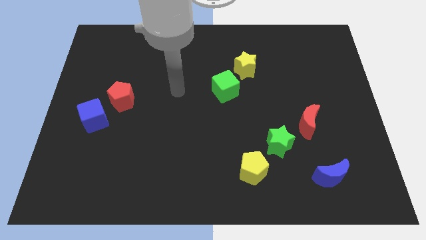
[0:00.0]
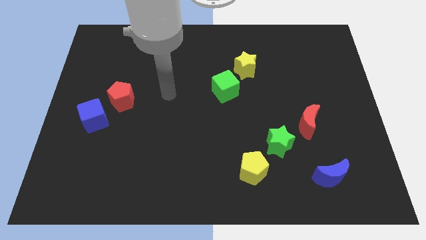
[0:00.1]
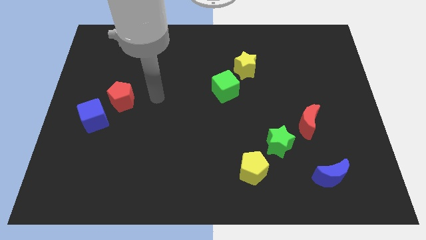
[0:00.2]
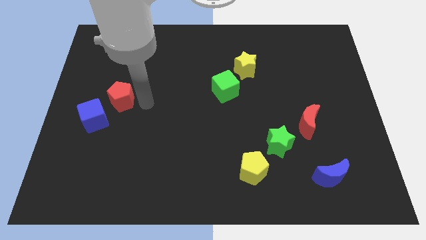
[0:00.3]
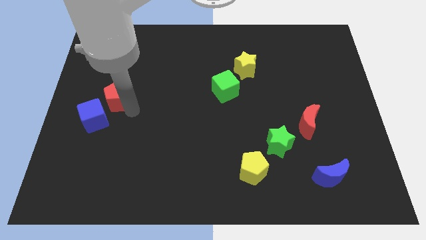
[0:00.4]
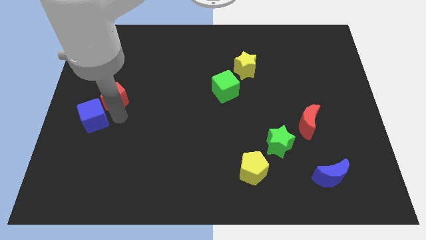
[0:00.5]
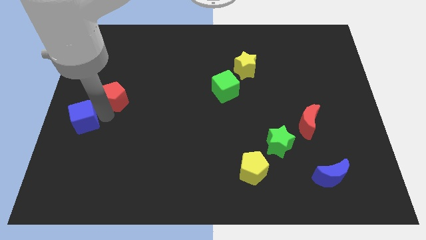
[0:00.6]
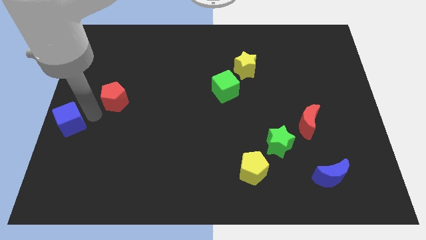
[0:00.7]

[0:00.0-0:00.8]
pull the red pentagon apart from the blue cube

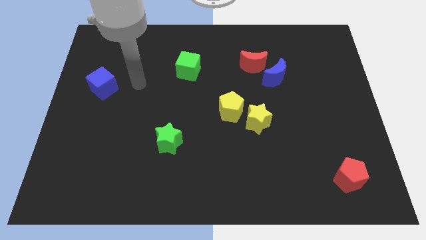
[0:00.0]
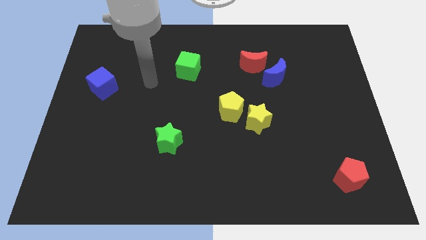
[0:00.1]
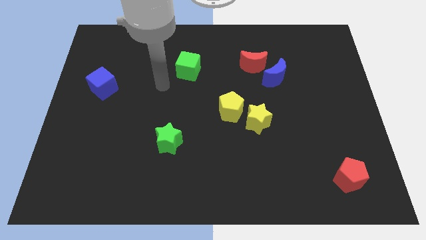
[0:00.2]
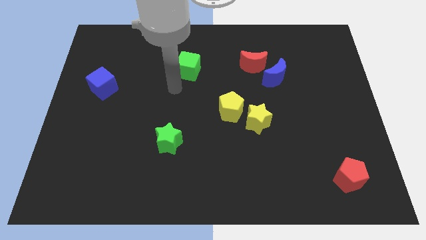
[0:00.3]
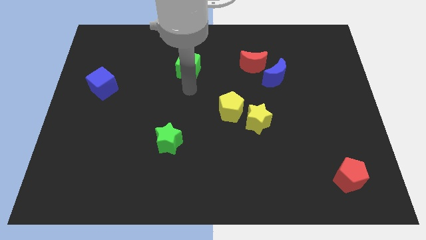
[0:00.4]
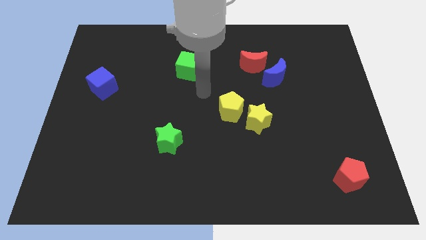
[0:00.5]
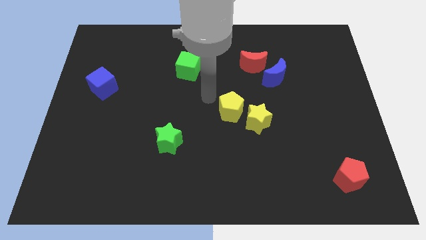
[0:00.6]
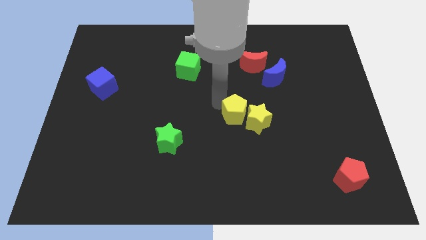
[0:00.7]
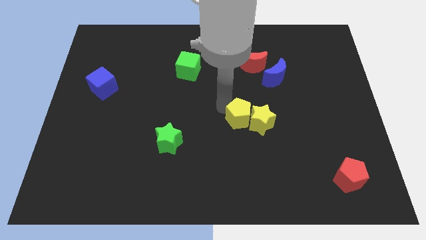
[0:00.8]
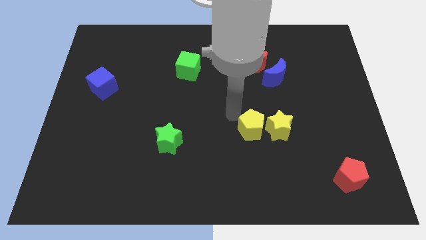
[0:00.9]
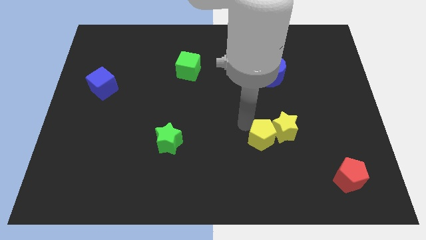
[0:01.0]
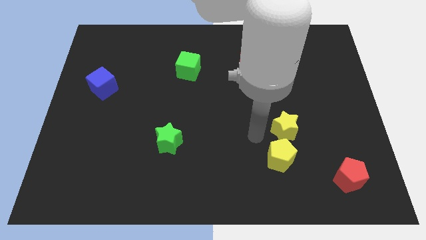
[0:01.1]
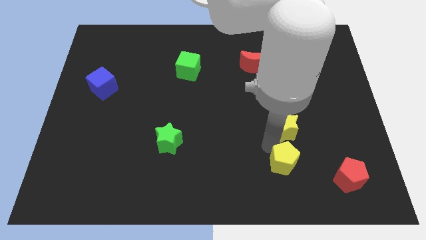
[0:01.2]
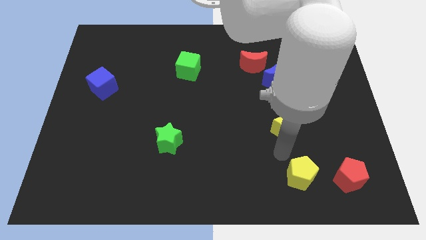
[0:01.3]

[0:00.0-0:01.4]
pull the yellow star apart from the yellow pentagon

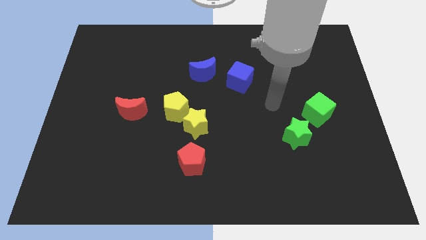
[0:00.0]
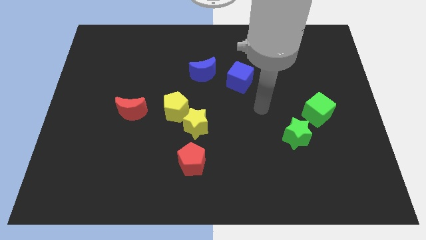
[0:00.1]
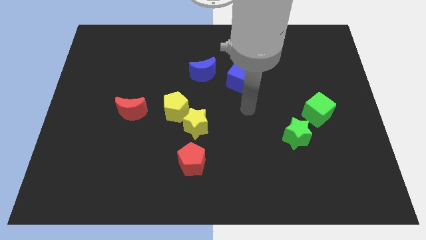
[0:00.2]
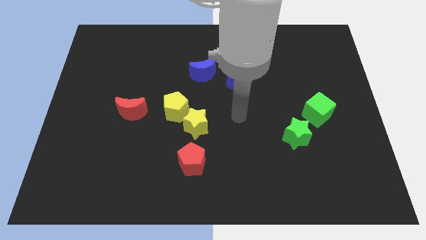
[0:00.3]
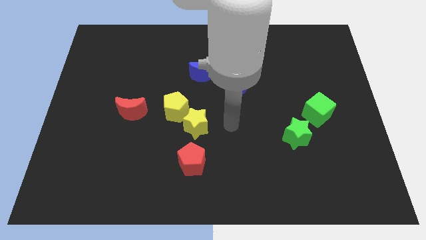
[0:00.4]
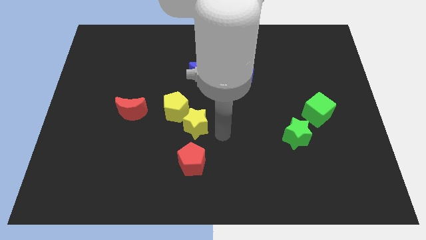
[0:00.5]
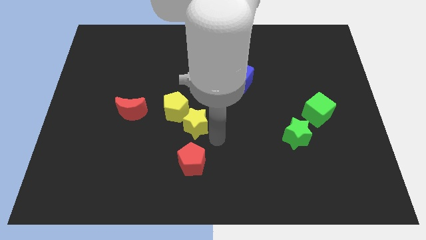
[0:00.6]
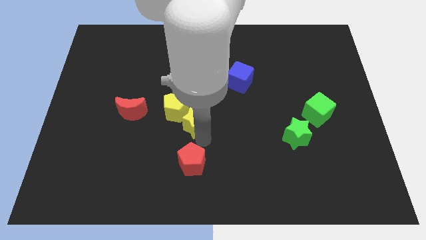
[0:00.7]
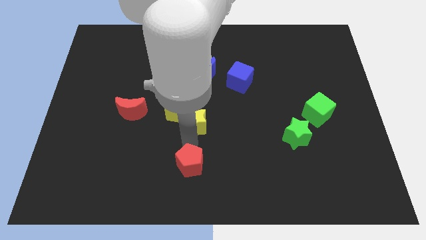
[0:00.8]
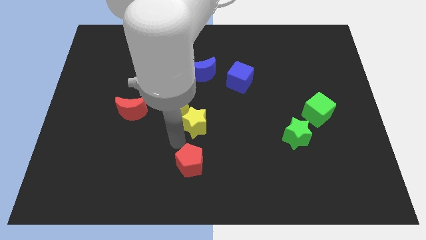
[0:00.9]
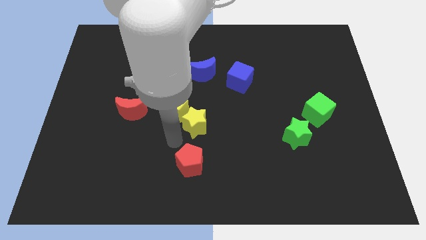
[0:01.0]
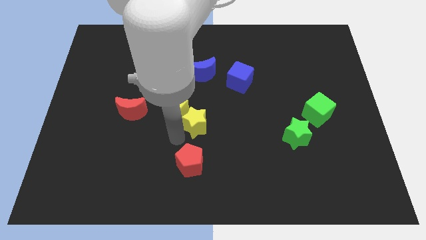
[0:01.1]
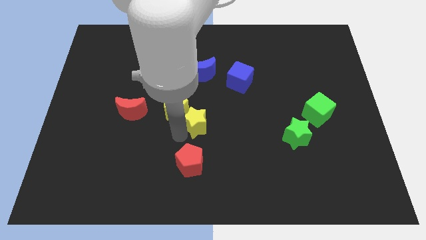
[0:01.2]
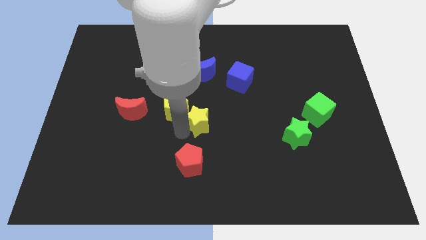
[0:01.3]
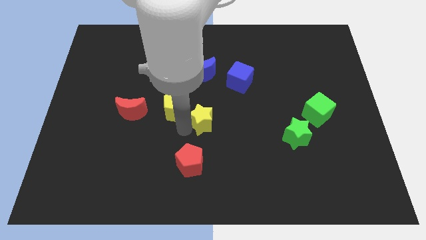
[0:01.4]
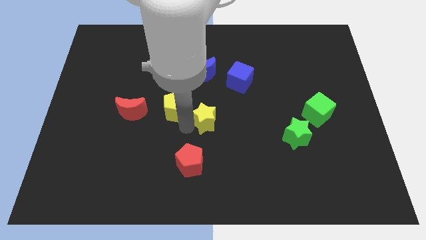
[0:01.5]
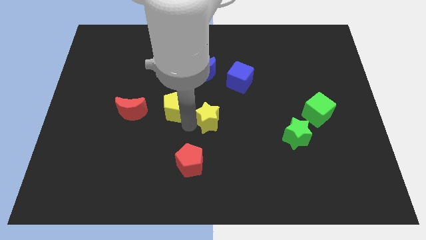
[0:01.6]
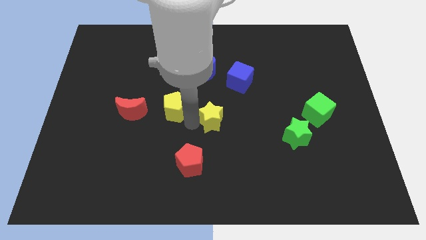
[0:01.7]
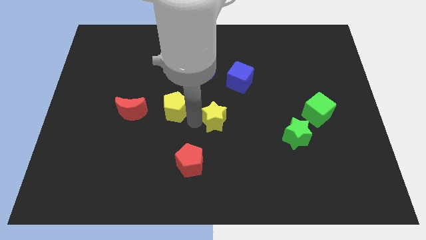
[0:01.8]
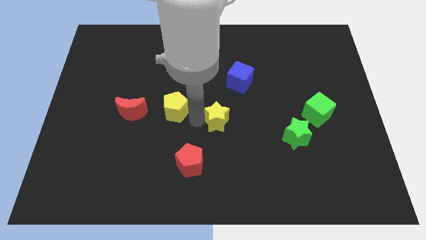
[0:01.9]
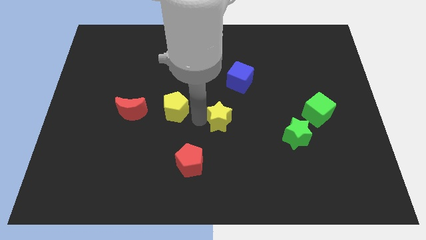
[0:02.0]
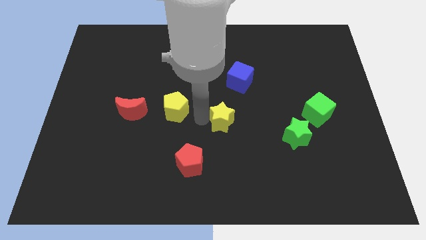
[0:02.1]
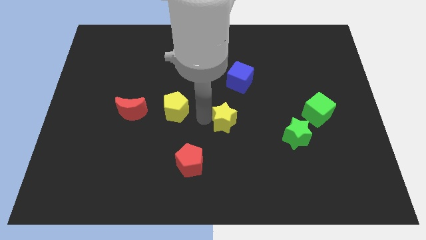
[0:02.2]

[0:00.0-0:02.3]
pull the yellow star apart from the yellow pentagon and red pentagon

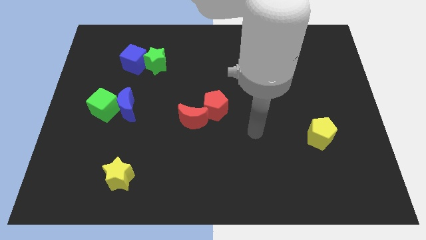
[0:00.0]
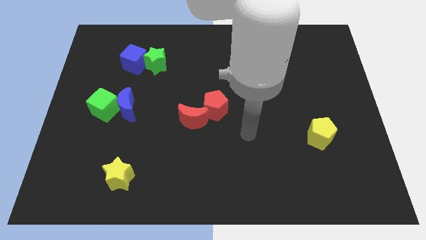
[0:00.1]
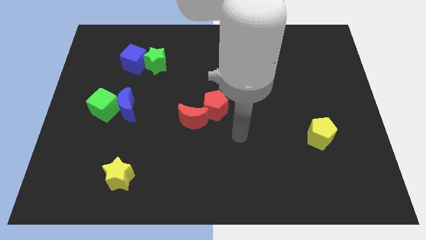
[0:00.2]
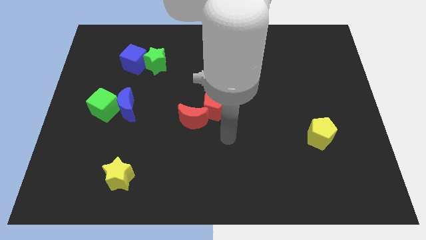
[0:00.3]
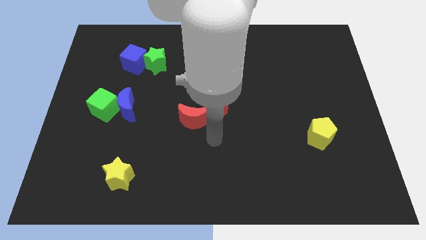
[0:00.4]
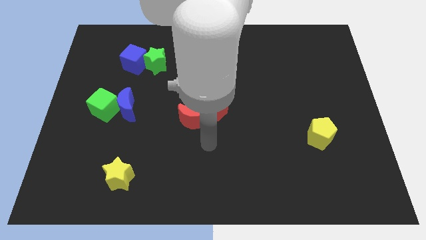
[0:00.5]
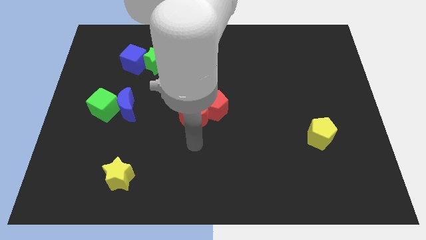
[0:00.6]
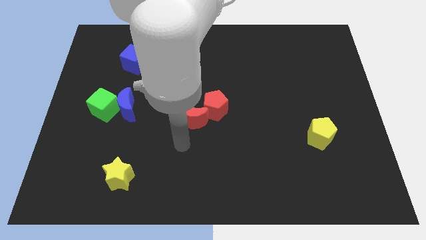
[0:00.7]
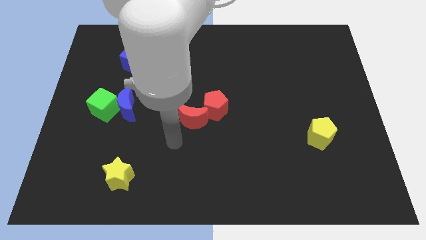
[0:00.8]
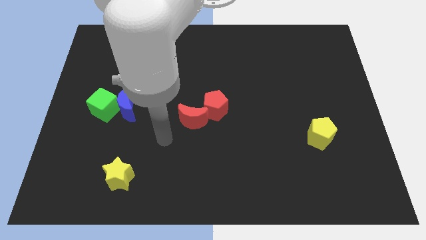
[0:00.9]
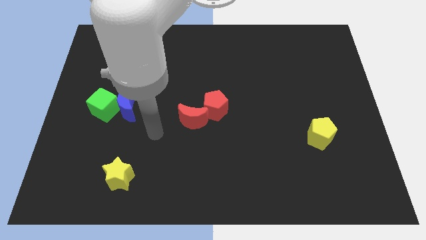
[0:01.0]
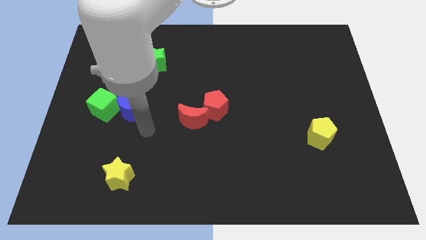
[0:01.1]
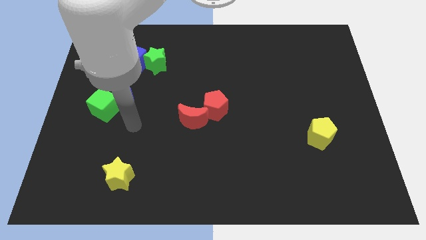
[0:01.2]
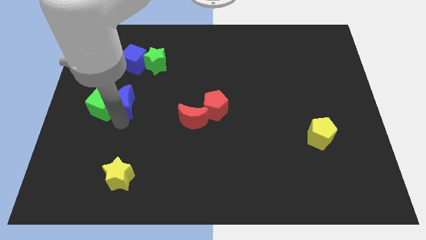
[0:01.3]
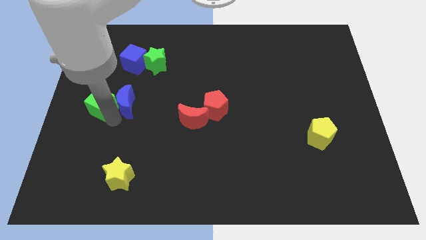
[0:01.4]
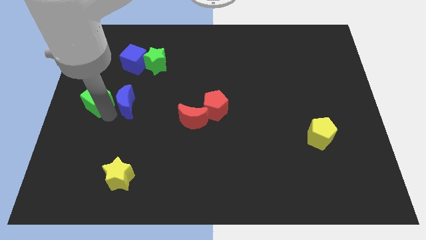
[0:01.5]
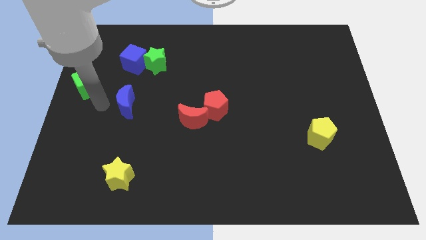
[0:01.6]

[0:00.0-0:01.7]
separate the blue moon from the green cube

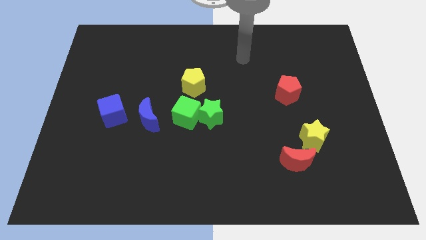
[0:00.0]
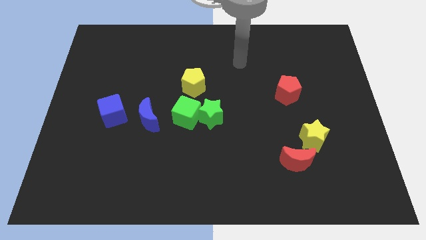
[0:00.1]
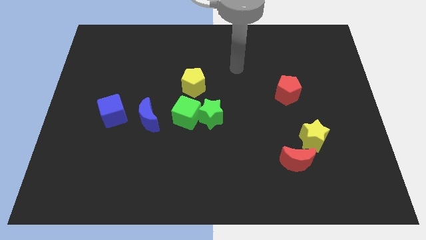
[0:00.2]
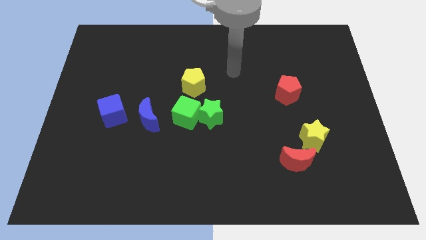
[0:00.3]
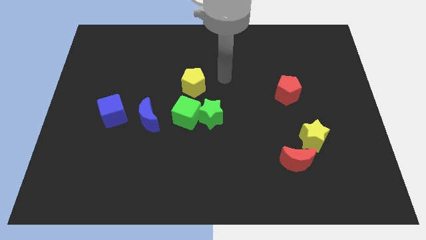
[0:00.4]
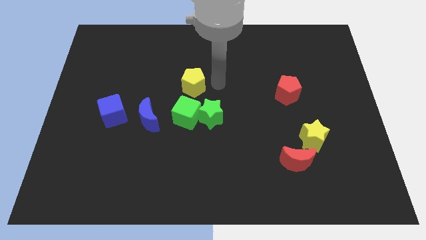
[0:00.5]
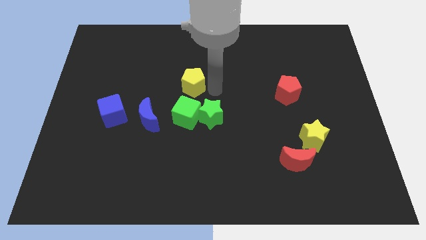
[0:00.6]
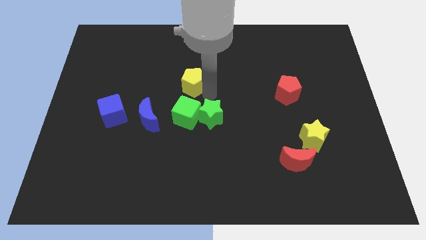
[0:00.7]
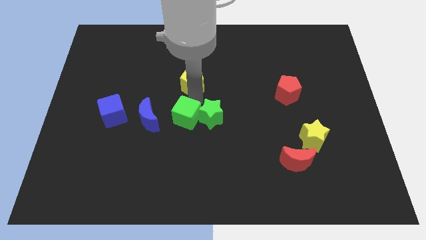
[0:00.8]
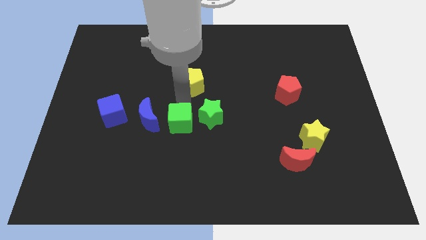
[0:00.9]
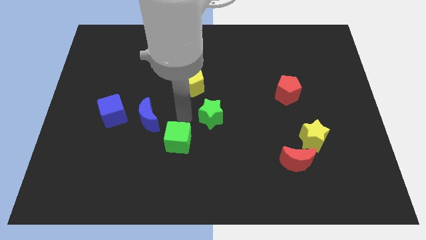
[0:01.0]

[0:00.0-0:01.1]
pull the green star apart from the green cube

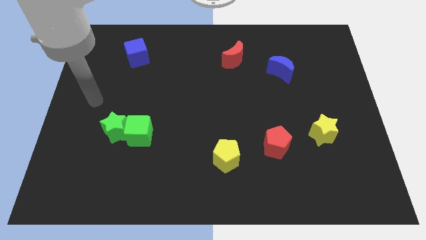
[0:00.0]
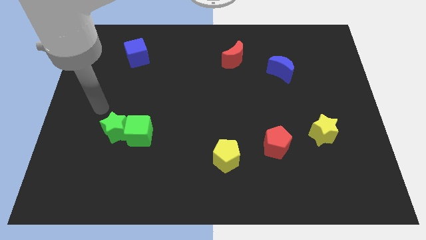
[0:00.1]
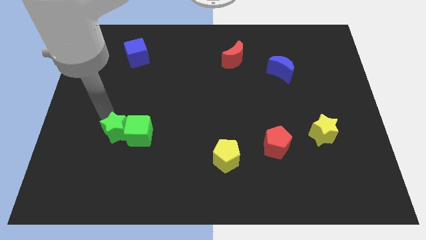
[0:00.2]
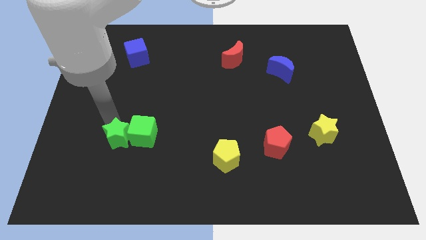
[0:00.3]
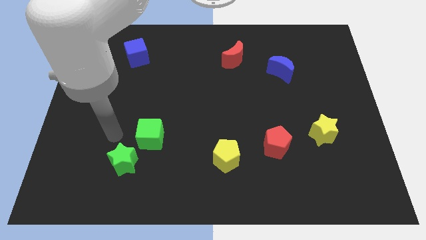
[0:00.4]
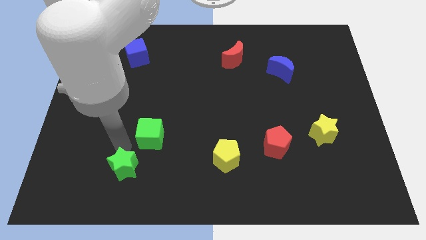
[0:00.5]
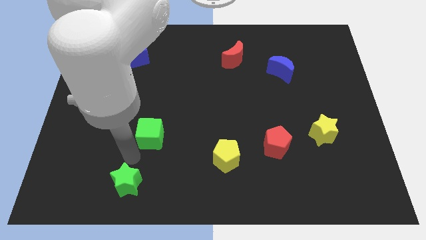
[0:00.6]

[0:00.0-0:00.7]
pull the green cube apart from the green star

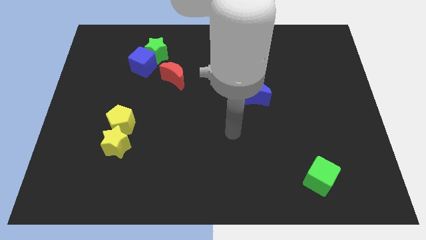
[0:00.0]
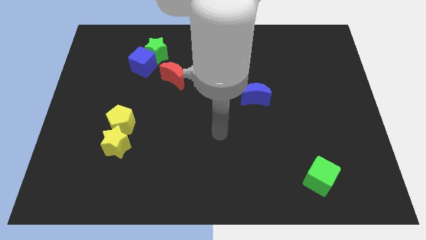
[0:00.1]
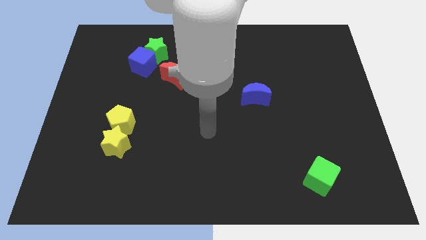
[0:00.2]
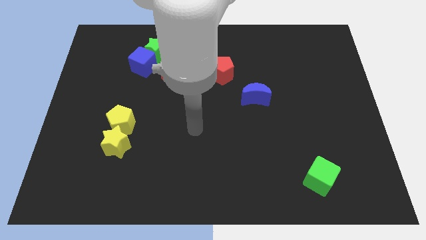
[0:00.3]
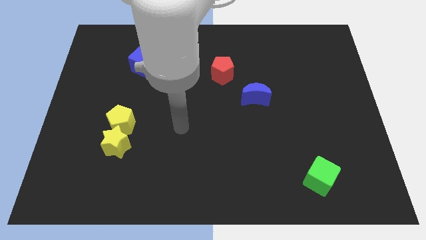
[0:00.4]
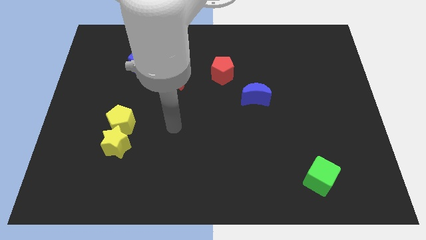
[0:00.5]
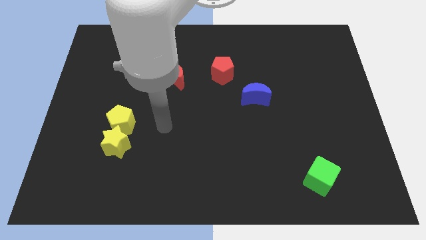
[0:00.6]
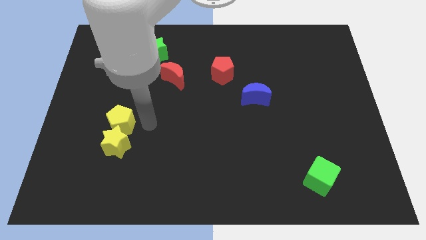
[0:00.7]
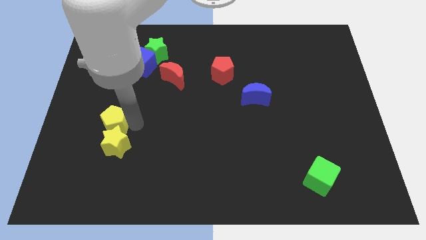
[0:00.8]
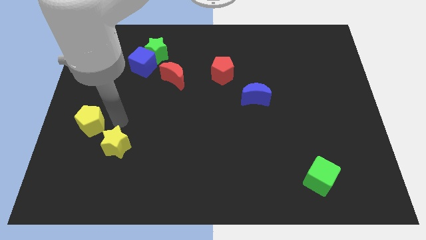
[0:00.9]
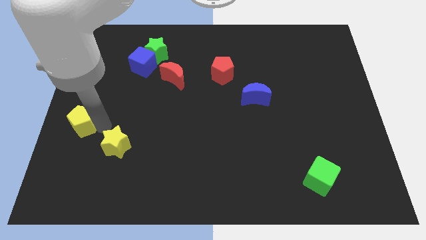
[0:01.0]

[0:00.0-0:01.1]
separate the yellow star from the yellow pentagon

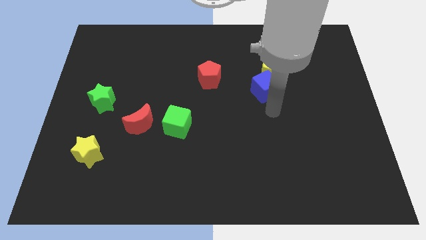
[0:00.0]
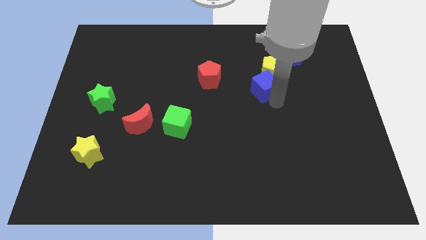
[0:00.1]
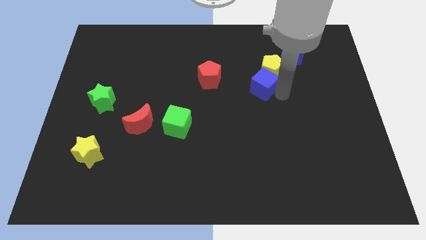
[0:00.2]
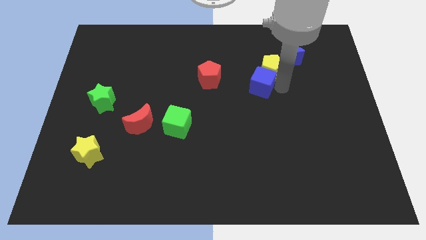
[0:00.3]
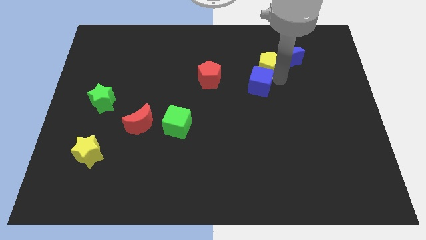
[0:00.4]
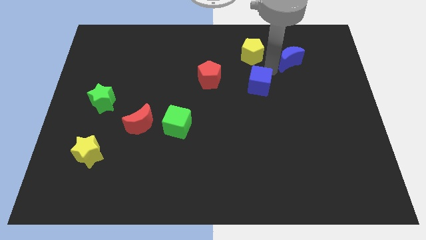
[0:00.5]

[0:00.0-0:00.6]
pull the blue cube apart from the yellow pentagon
